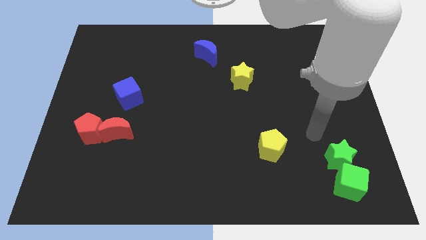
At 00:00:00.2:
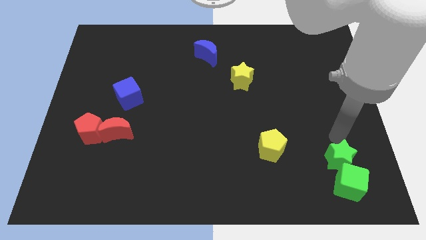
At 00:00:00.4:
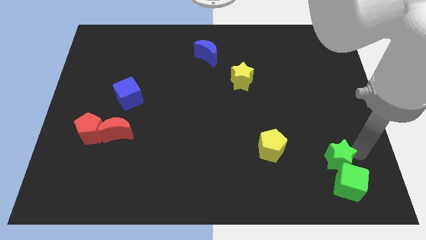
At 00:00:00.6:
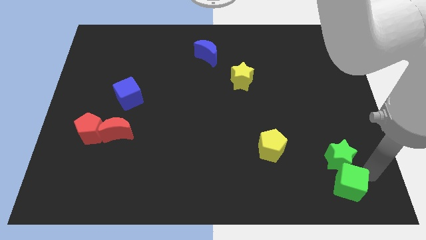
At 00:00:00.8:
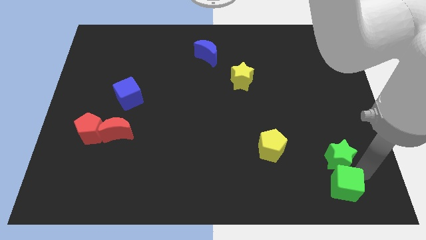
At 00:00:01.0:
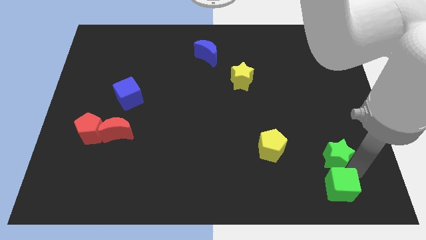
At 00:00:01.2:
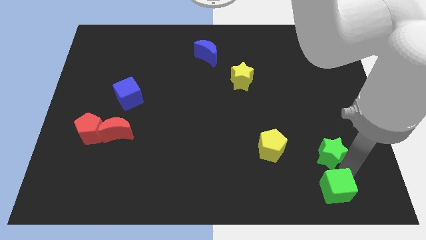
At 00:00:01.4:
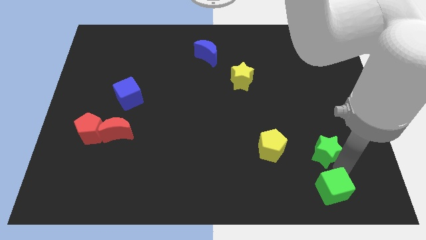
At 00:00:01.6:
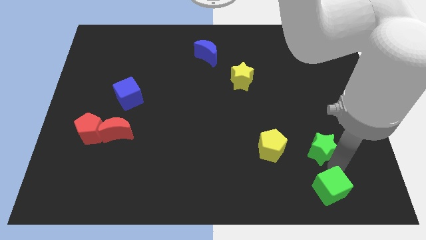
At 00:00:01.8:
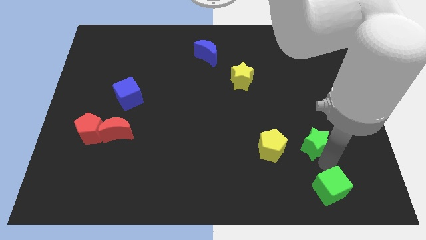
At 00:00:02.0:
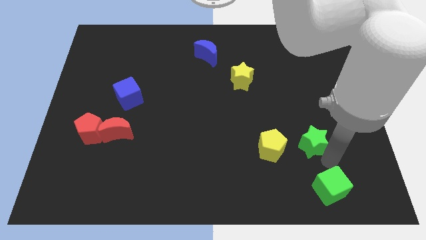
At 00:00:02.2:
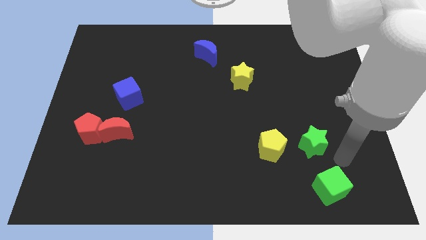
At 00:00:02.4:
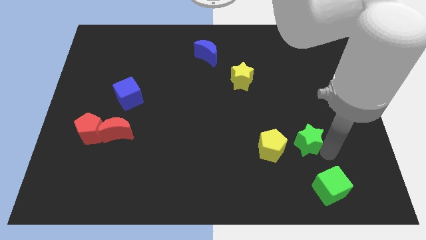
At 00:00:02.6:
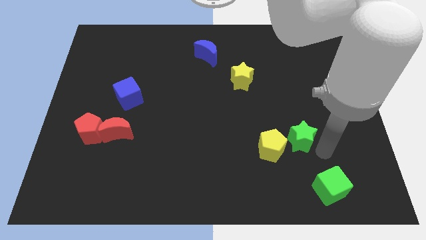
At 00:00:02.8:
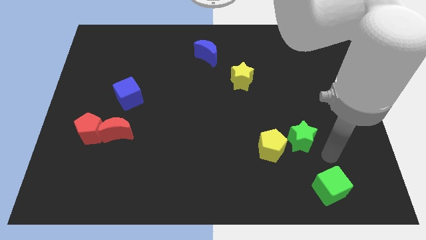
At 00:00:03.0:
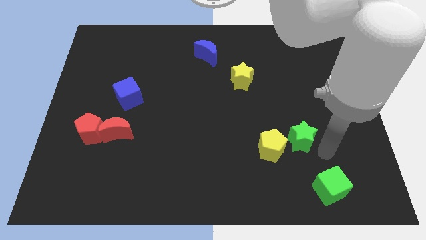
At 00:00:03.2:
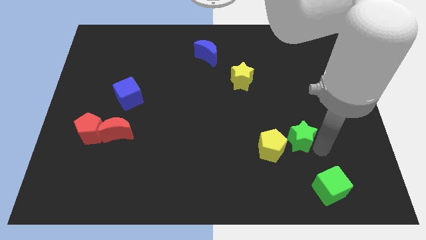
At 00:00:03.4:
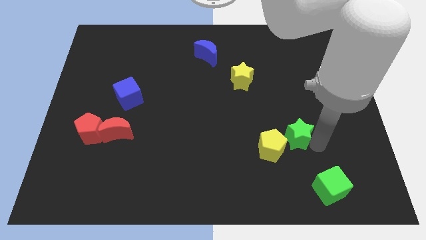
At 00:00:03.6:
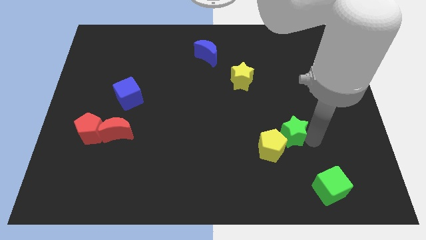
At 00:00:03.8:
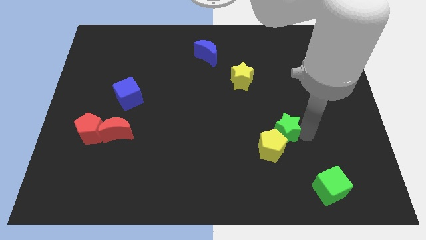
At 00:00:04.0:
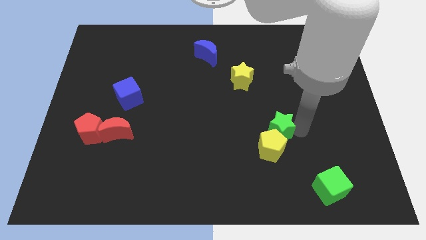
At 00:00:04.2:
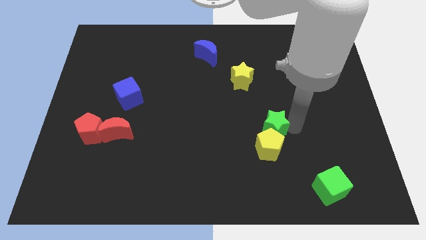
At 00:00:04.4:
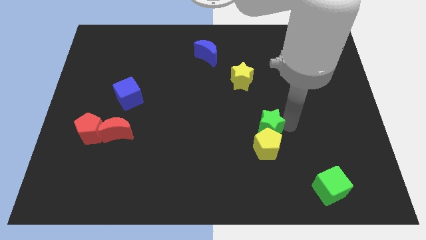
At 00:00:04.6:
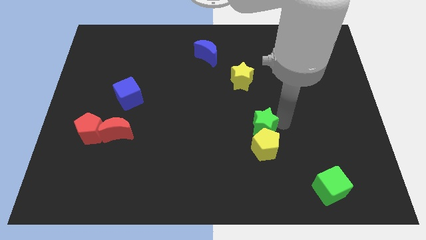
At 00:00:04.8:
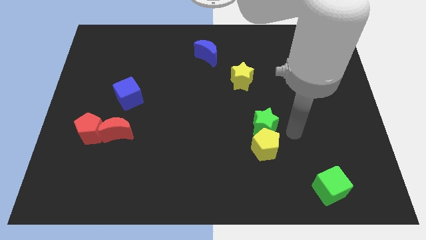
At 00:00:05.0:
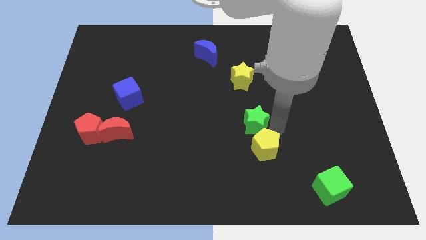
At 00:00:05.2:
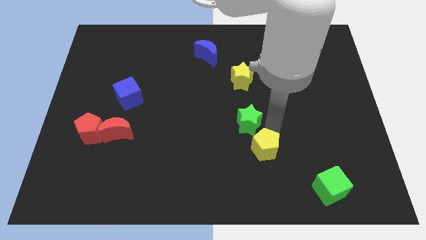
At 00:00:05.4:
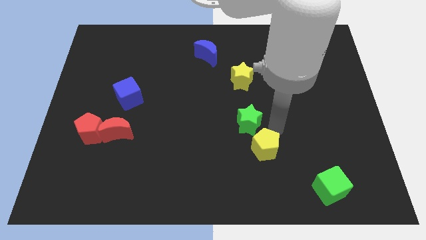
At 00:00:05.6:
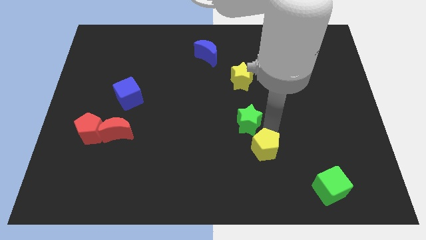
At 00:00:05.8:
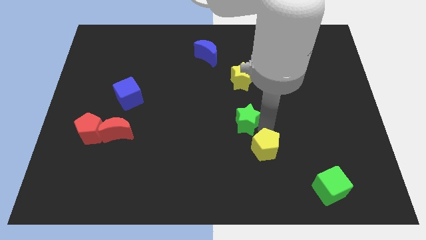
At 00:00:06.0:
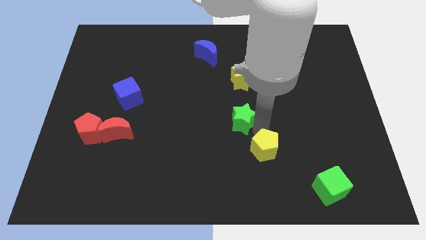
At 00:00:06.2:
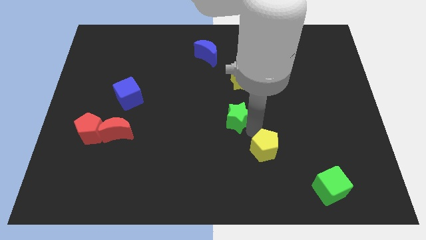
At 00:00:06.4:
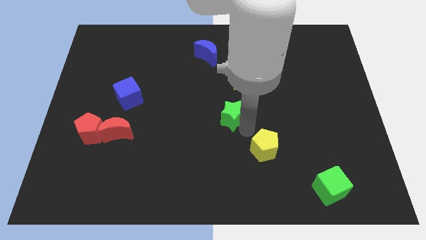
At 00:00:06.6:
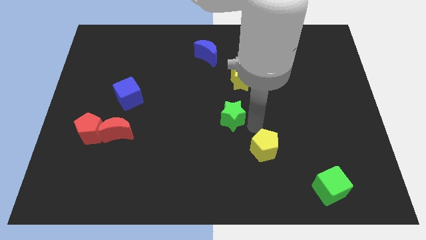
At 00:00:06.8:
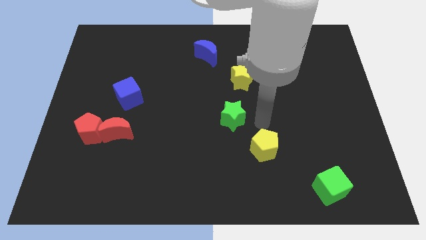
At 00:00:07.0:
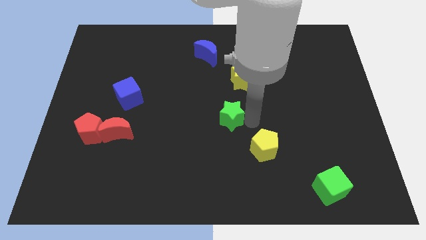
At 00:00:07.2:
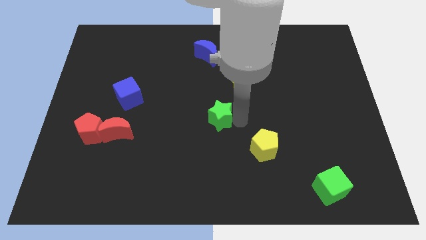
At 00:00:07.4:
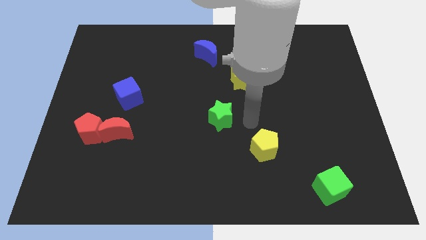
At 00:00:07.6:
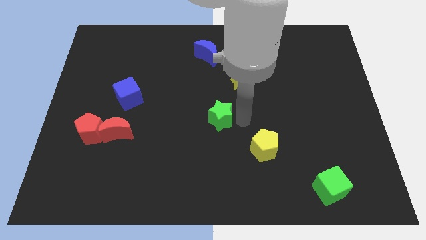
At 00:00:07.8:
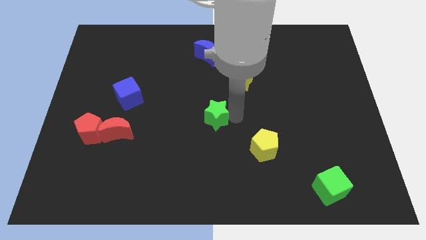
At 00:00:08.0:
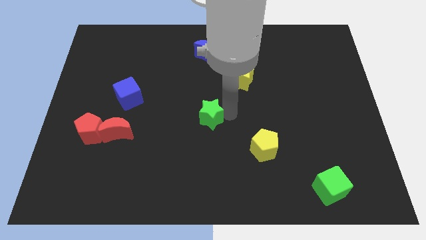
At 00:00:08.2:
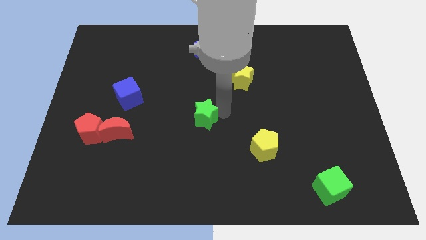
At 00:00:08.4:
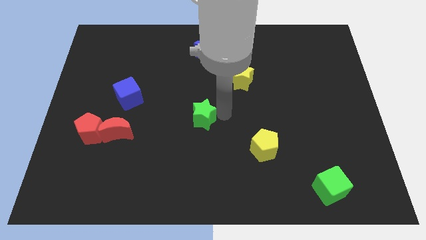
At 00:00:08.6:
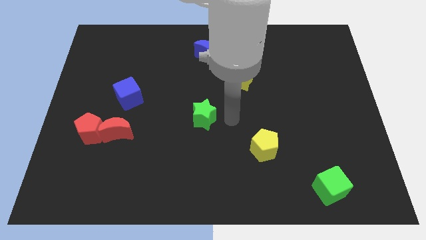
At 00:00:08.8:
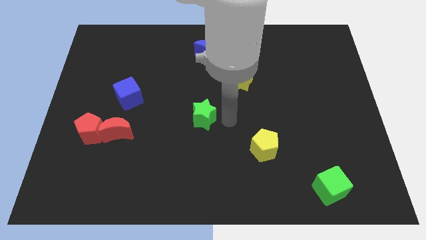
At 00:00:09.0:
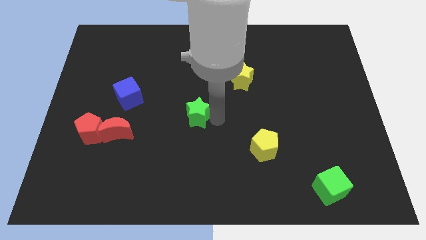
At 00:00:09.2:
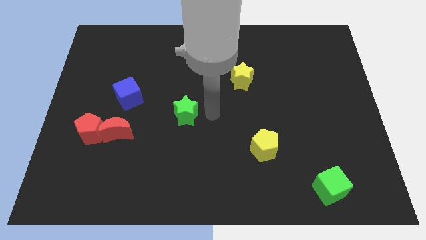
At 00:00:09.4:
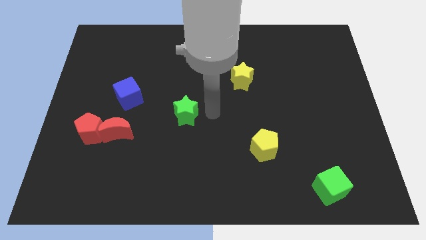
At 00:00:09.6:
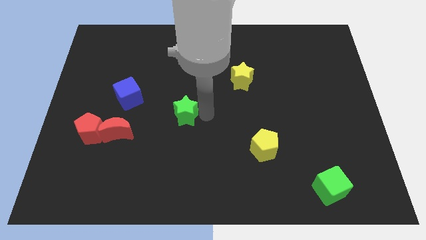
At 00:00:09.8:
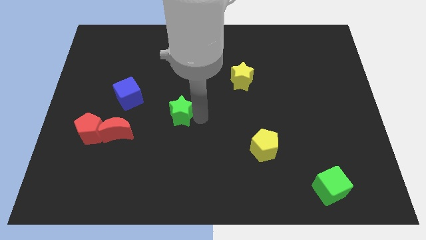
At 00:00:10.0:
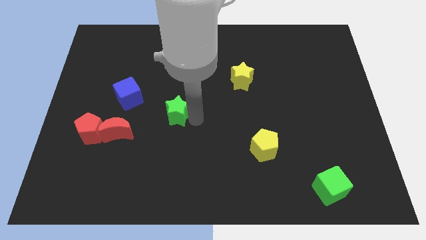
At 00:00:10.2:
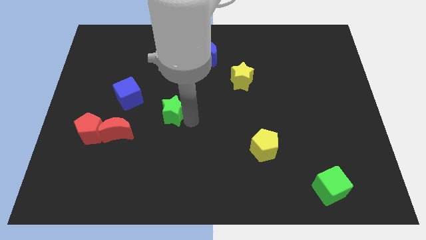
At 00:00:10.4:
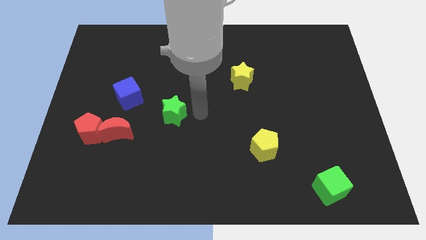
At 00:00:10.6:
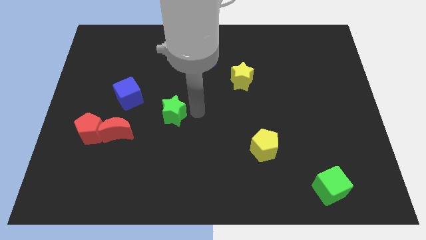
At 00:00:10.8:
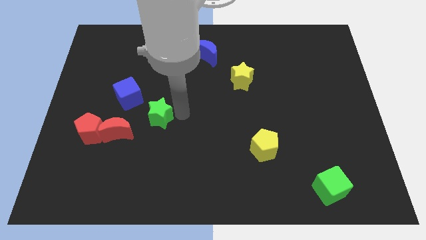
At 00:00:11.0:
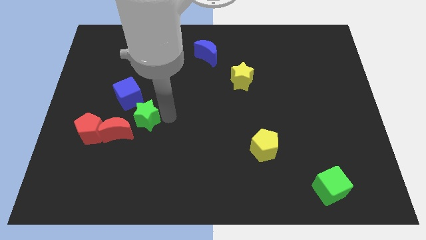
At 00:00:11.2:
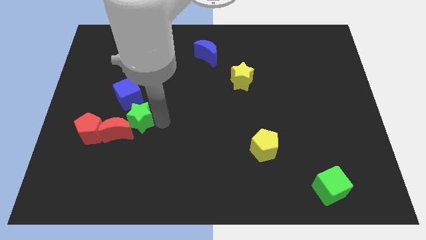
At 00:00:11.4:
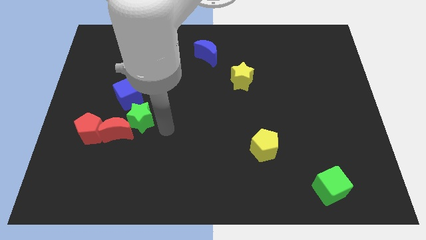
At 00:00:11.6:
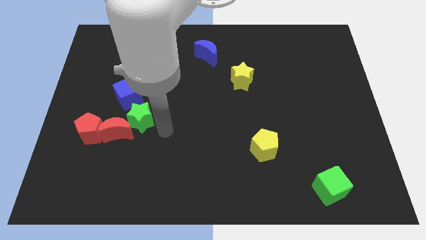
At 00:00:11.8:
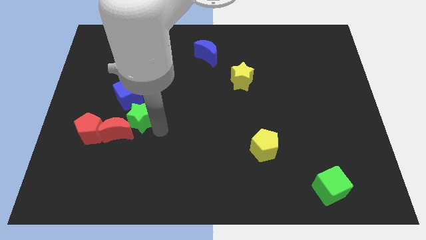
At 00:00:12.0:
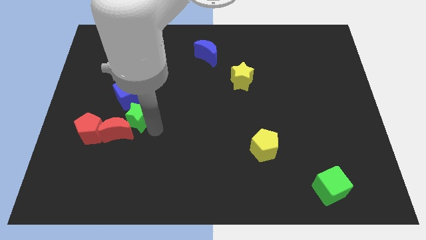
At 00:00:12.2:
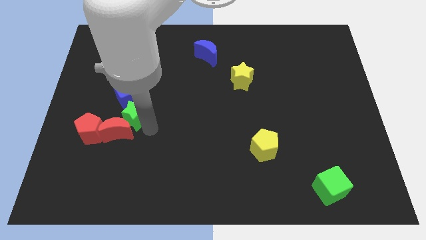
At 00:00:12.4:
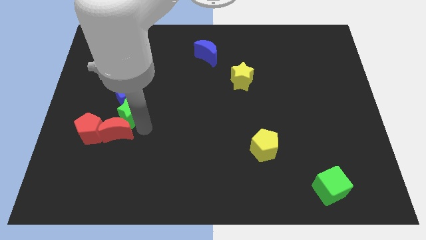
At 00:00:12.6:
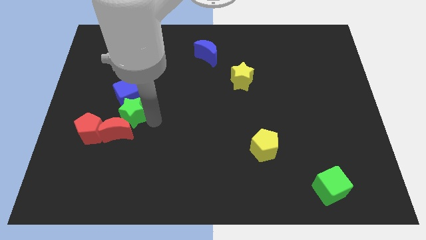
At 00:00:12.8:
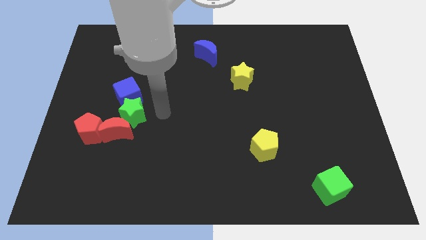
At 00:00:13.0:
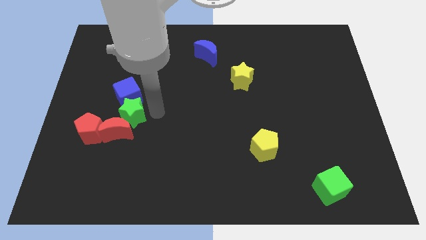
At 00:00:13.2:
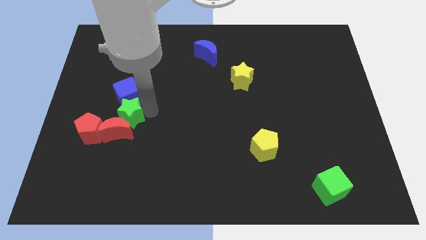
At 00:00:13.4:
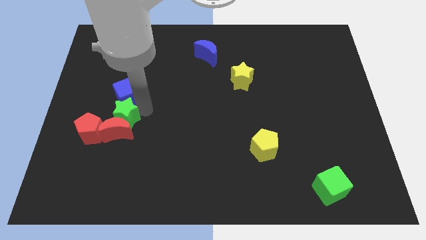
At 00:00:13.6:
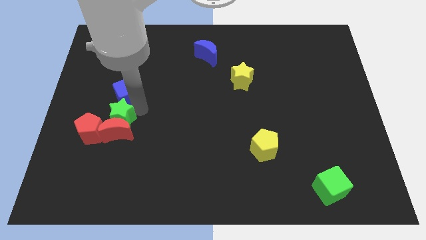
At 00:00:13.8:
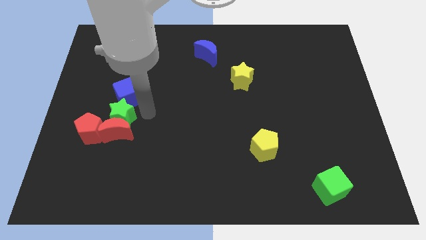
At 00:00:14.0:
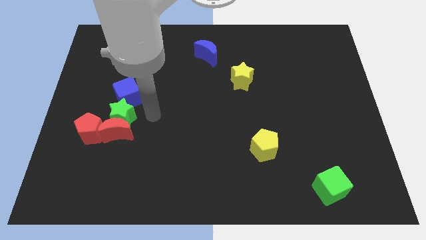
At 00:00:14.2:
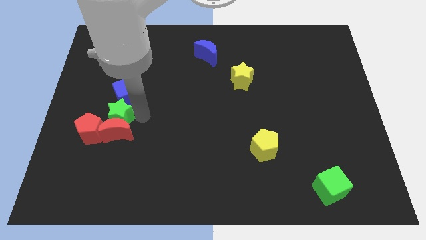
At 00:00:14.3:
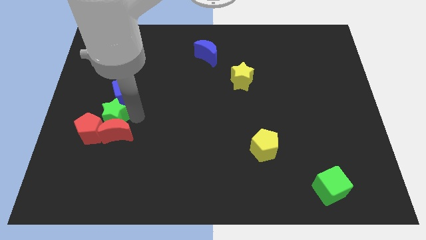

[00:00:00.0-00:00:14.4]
put the green star towards the red pentagon

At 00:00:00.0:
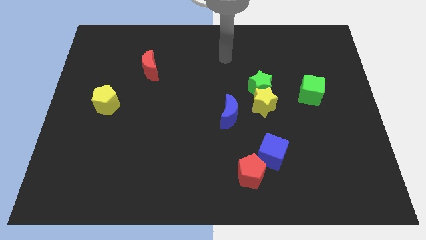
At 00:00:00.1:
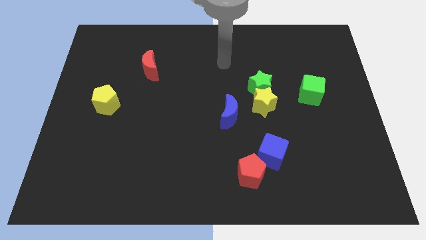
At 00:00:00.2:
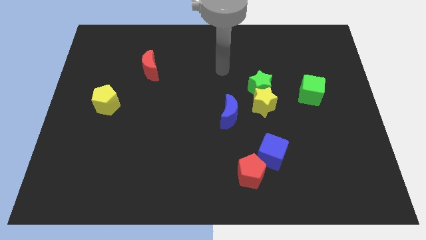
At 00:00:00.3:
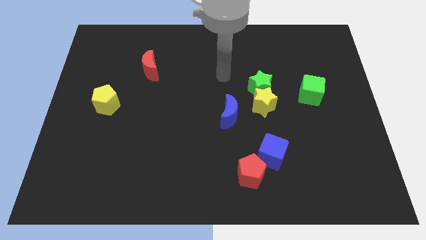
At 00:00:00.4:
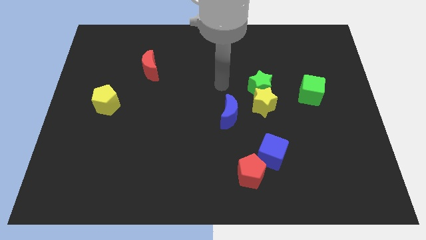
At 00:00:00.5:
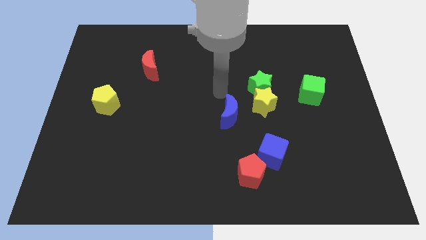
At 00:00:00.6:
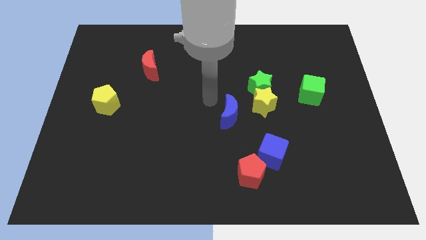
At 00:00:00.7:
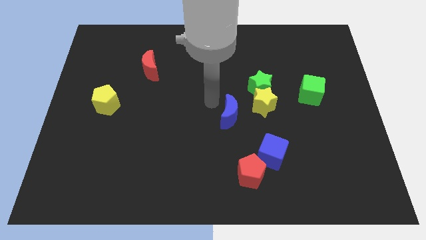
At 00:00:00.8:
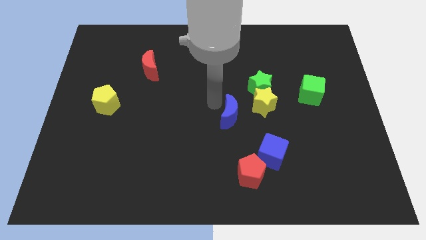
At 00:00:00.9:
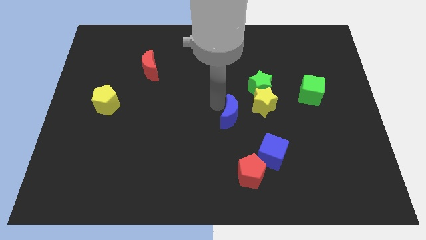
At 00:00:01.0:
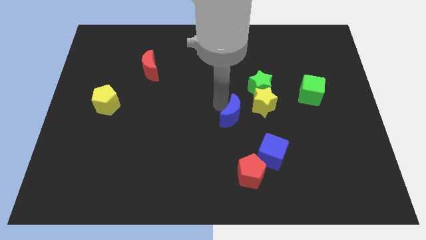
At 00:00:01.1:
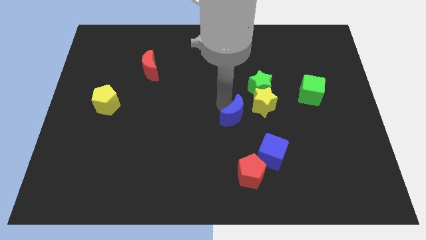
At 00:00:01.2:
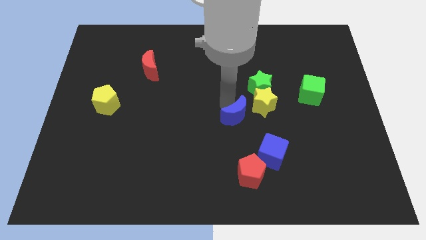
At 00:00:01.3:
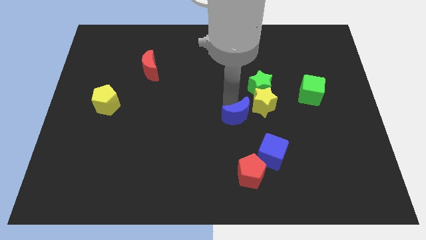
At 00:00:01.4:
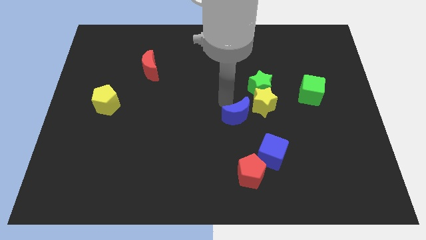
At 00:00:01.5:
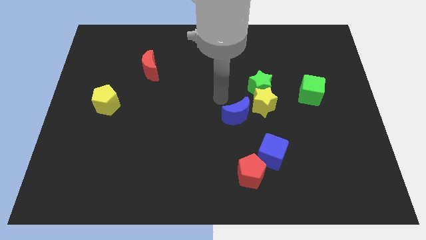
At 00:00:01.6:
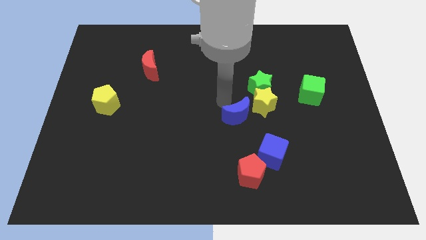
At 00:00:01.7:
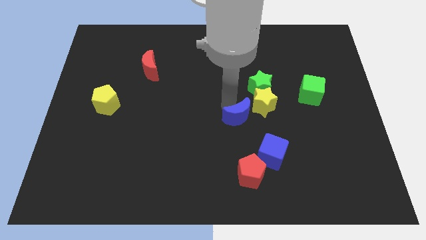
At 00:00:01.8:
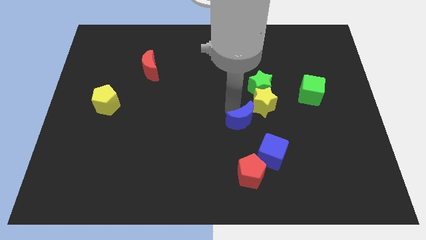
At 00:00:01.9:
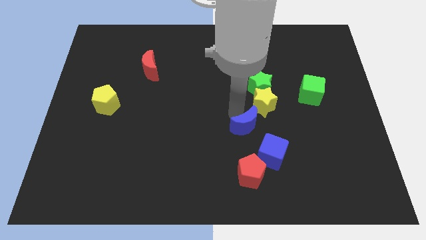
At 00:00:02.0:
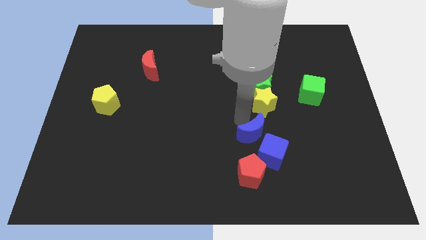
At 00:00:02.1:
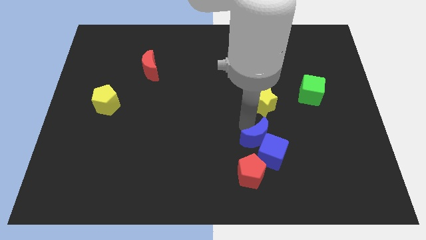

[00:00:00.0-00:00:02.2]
push the blue moon next to the blue cube
